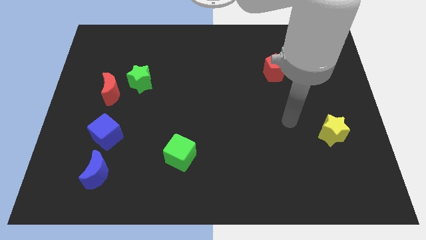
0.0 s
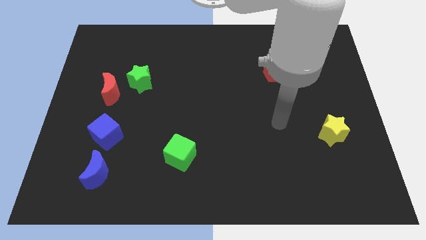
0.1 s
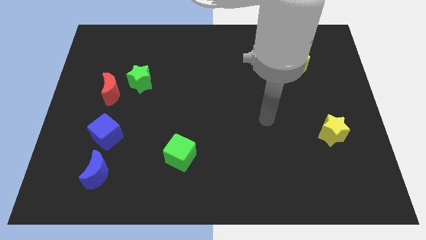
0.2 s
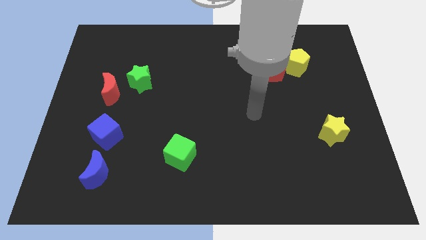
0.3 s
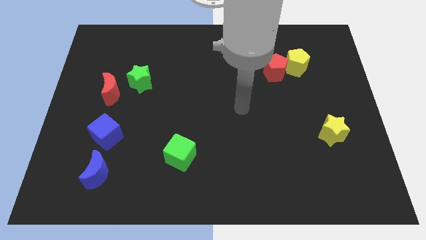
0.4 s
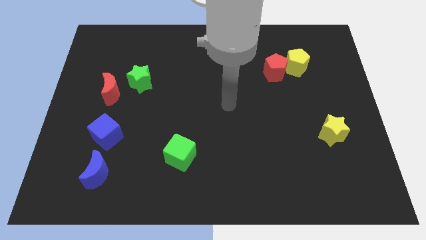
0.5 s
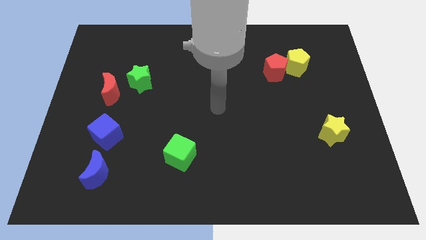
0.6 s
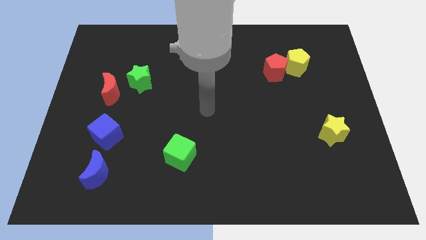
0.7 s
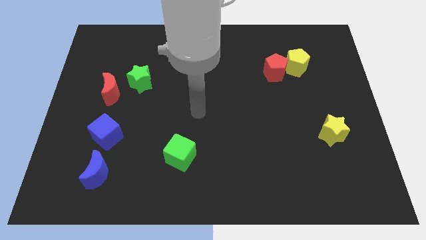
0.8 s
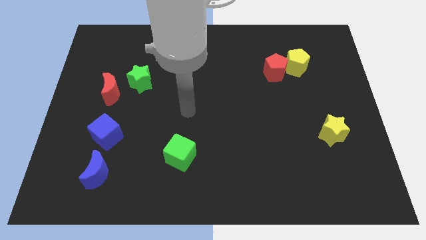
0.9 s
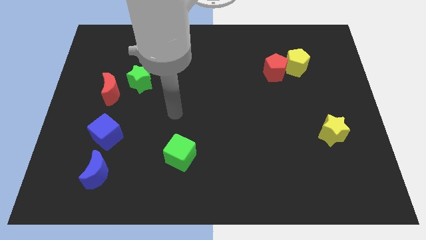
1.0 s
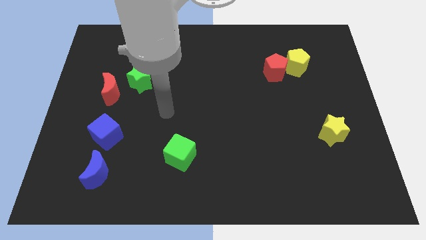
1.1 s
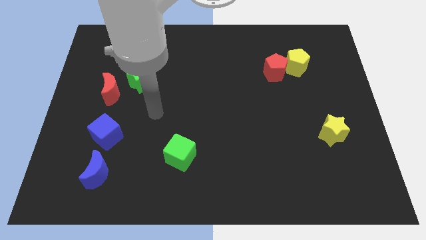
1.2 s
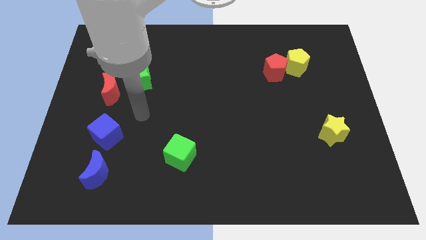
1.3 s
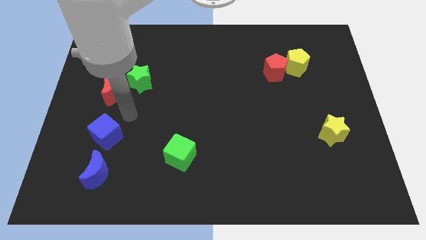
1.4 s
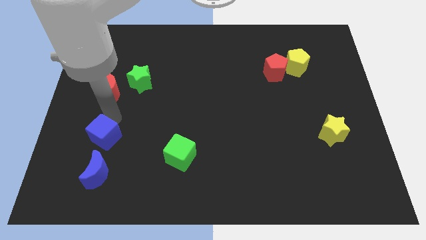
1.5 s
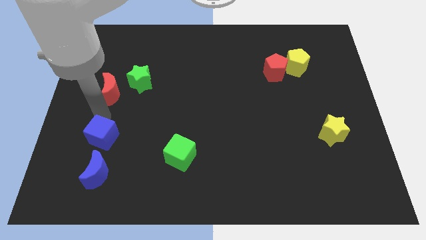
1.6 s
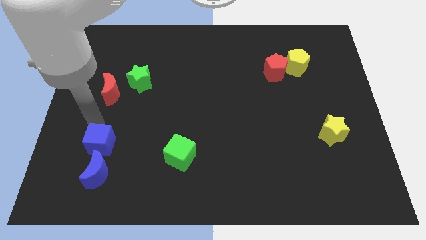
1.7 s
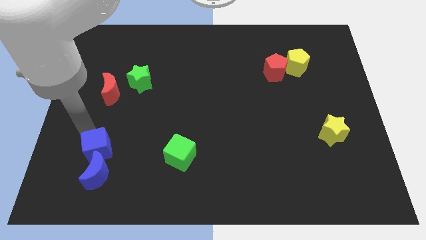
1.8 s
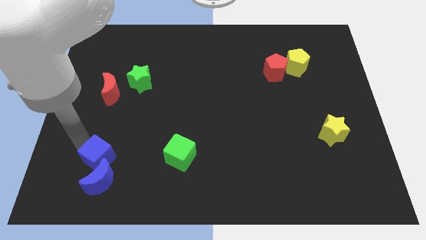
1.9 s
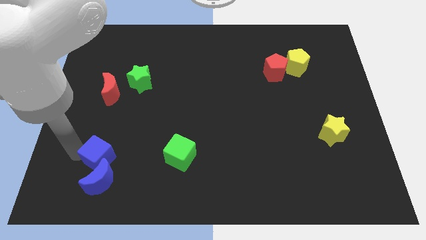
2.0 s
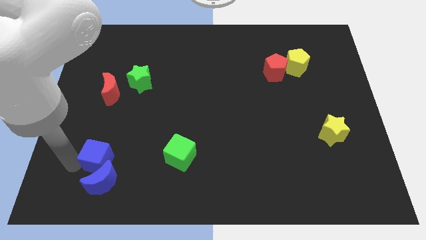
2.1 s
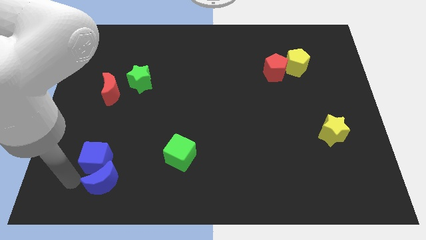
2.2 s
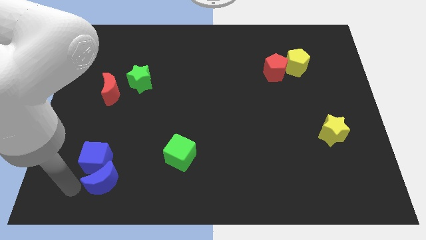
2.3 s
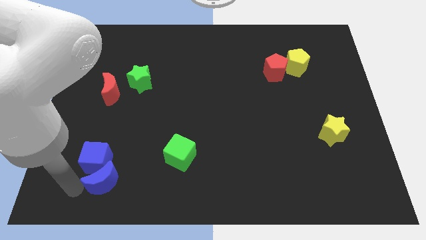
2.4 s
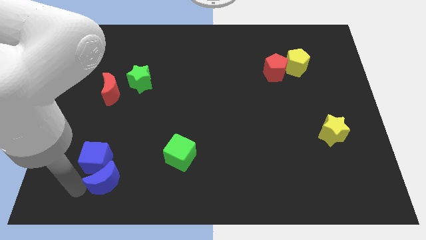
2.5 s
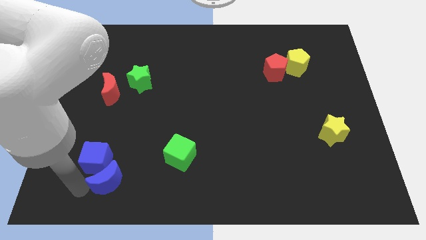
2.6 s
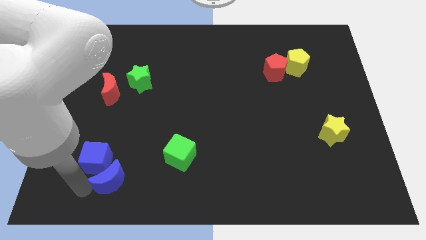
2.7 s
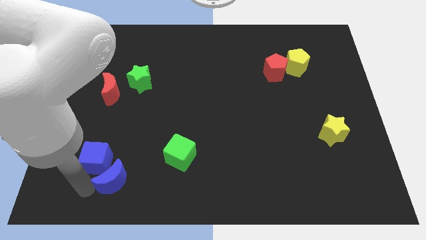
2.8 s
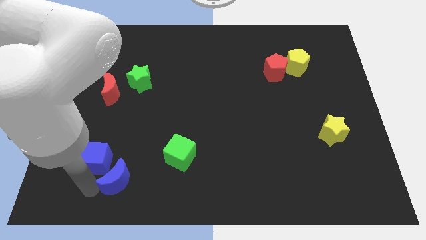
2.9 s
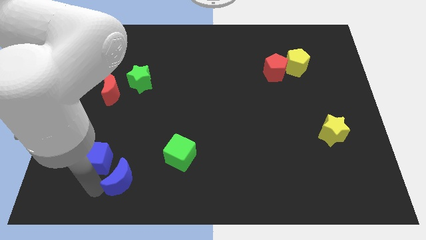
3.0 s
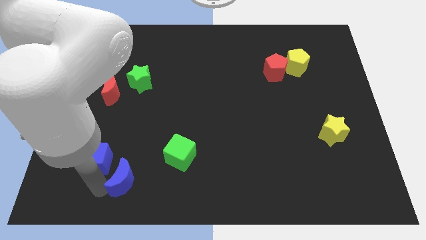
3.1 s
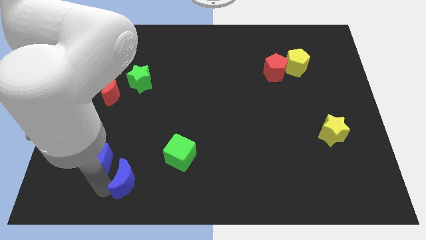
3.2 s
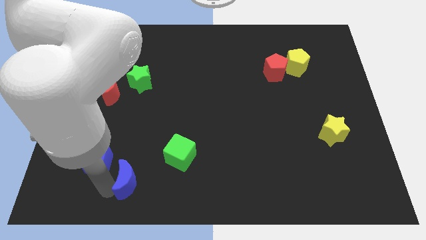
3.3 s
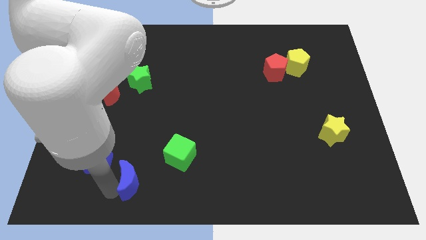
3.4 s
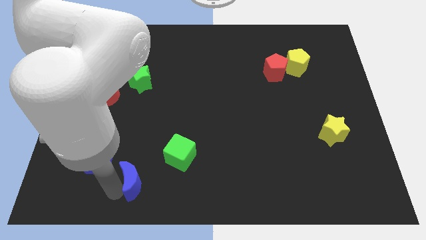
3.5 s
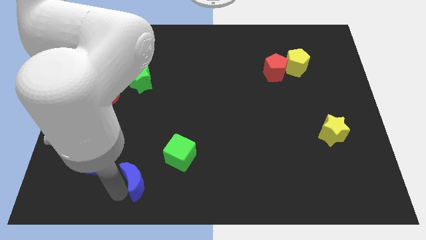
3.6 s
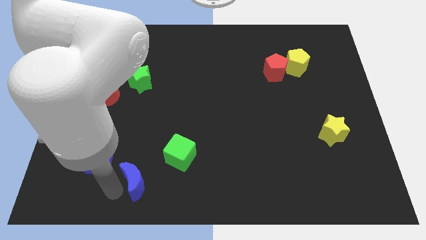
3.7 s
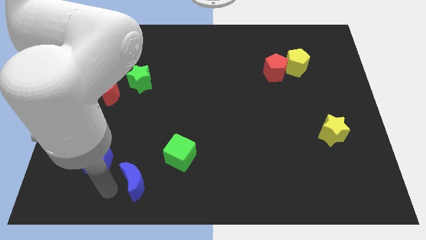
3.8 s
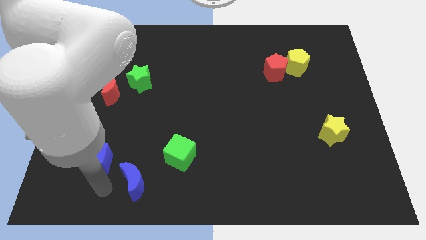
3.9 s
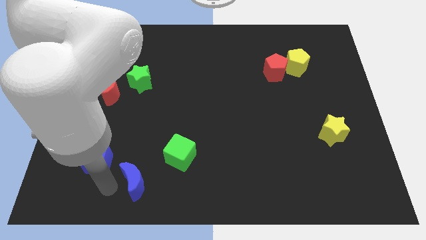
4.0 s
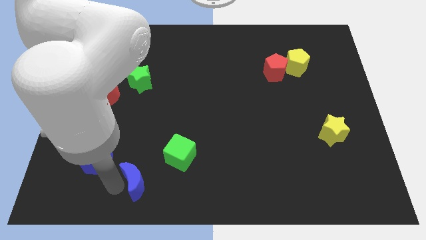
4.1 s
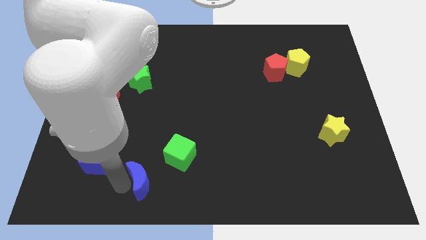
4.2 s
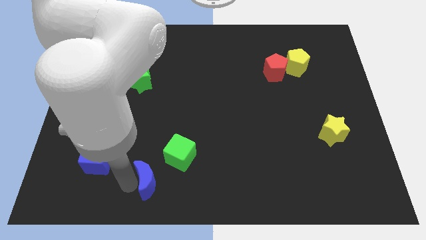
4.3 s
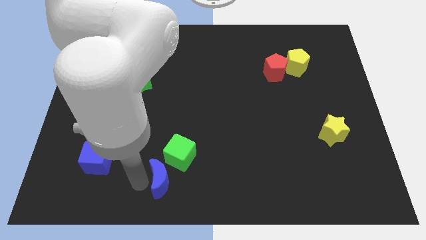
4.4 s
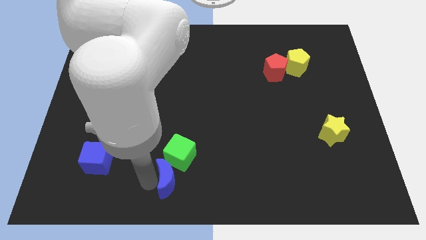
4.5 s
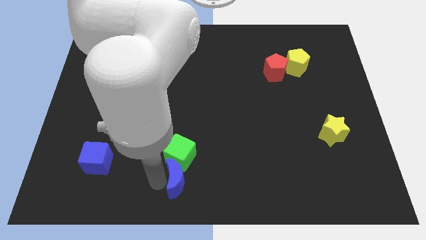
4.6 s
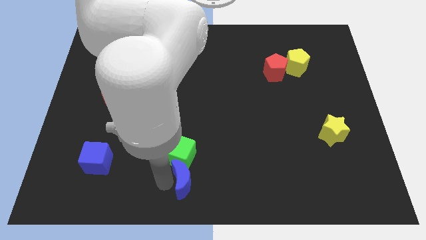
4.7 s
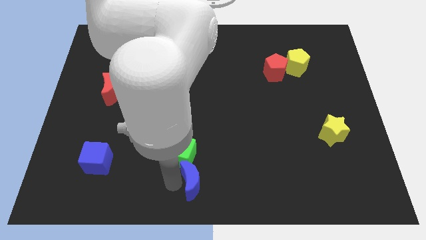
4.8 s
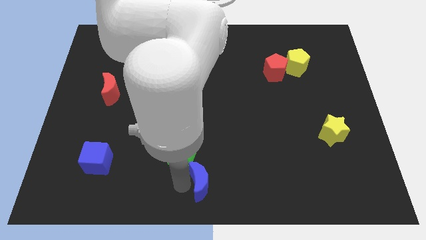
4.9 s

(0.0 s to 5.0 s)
move the blue moon to the right

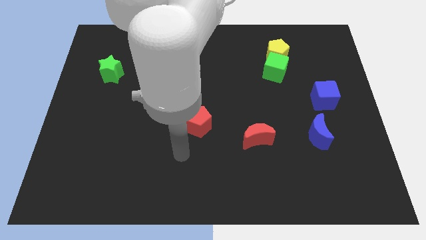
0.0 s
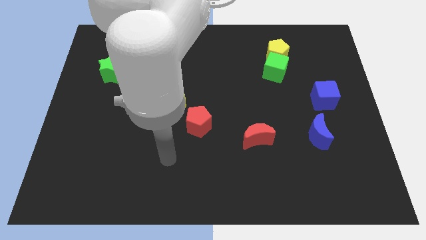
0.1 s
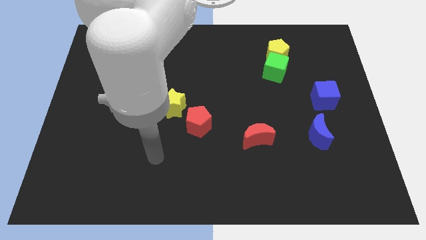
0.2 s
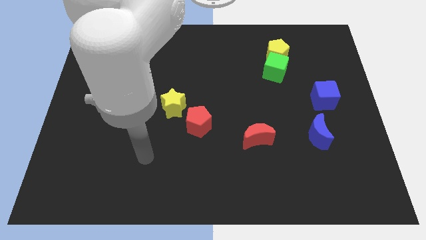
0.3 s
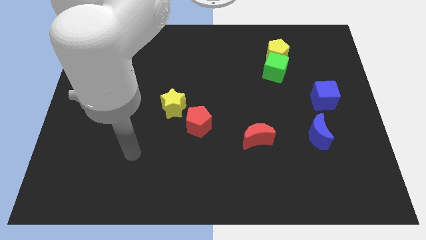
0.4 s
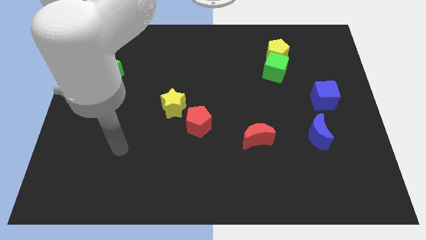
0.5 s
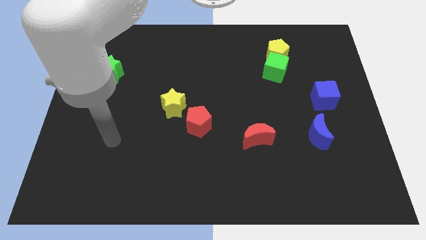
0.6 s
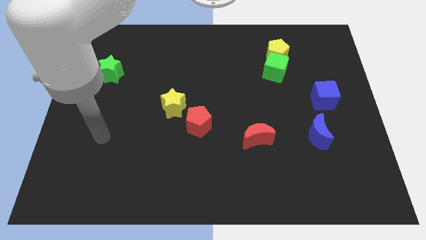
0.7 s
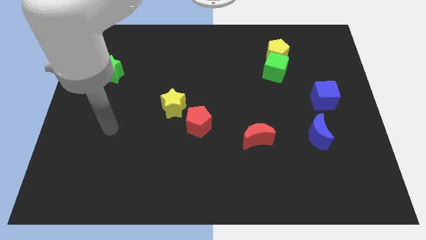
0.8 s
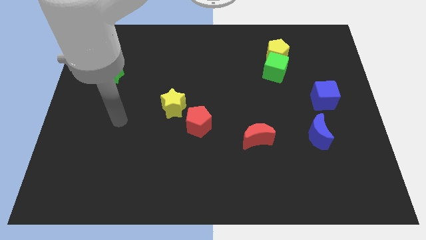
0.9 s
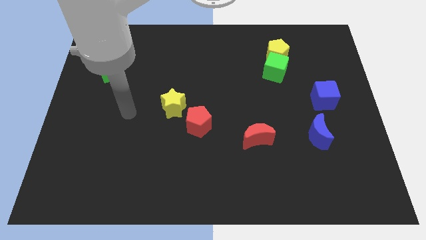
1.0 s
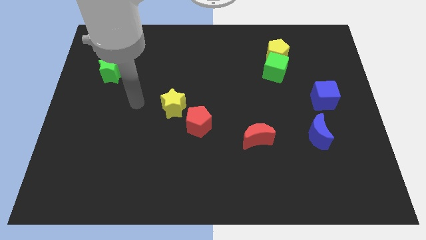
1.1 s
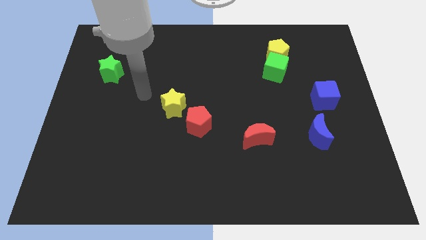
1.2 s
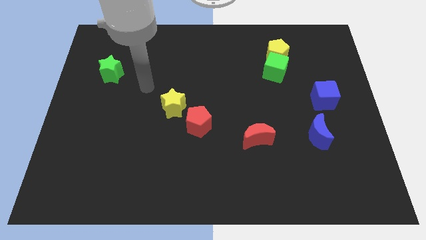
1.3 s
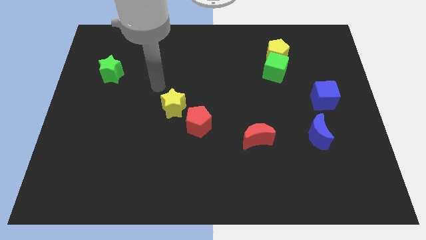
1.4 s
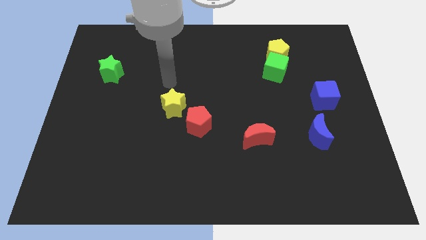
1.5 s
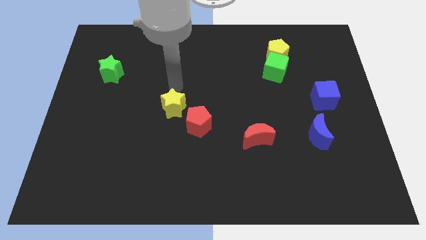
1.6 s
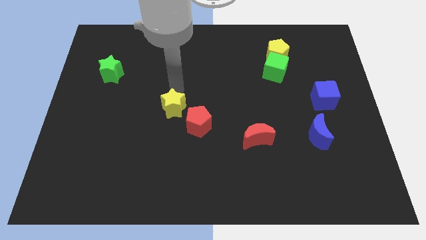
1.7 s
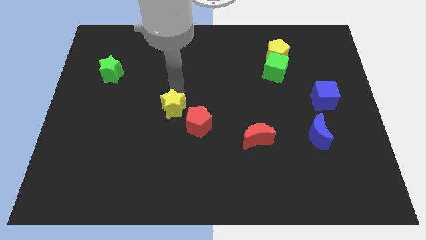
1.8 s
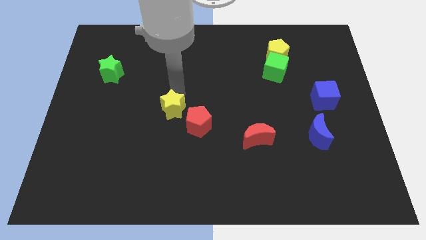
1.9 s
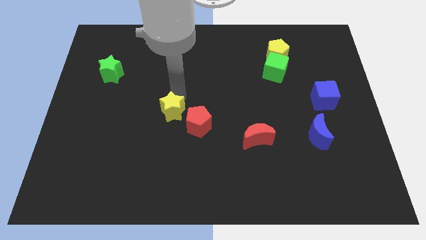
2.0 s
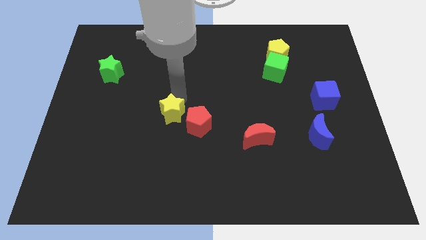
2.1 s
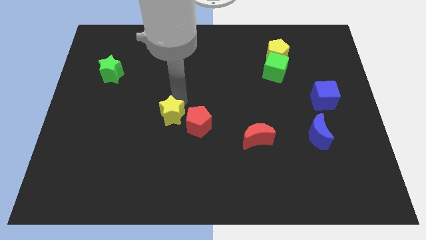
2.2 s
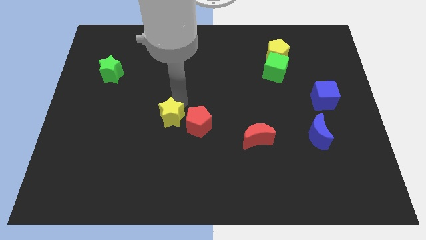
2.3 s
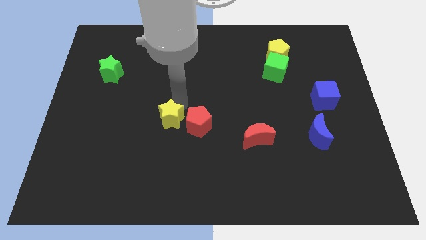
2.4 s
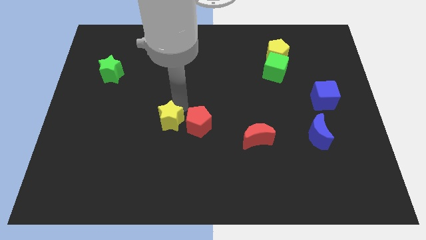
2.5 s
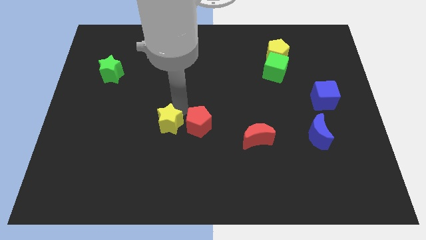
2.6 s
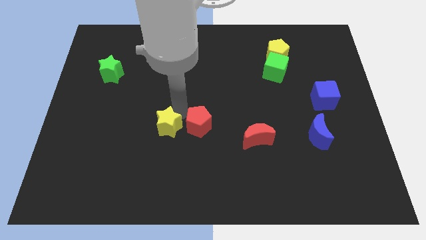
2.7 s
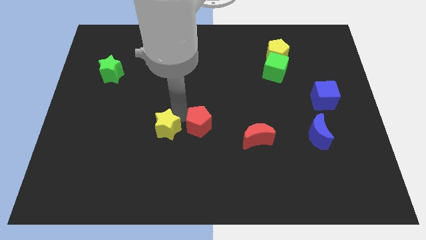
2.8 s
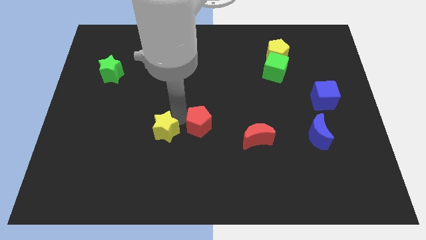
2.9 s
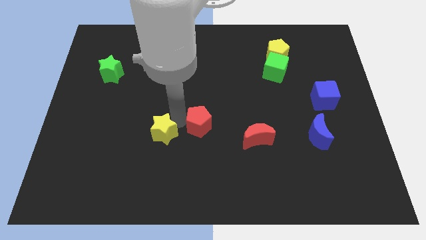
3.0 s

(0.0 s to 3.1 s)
slightly slide the yellow star downwards
